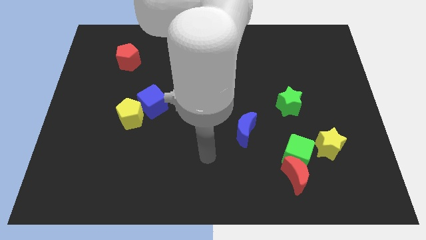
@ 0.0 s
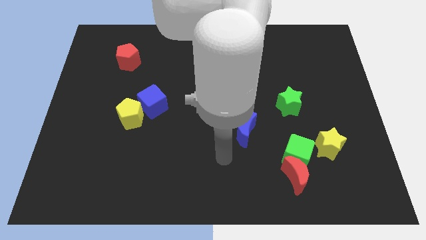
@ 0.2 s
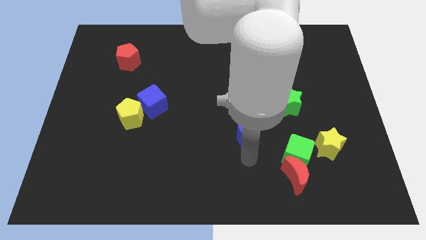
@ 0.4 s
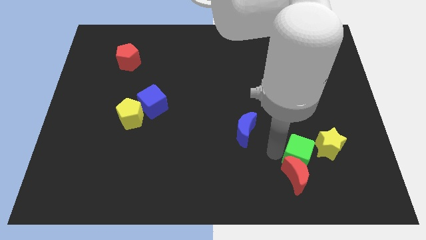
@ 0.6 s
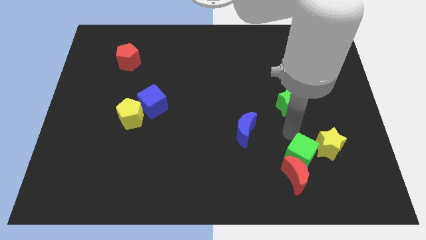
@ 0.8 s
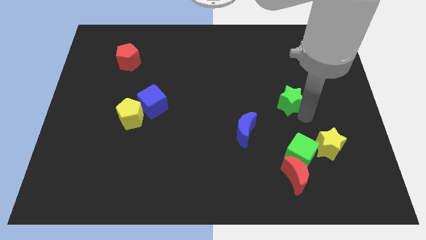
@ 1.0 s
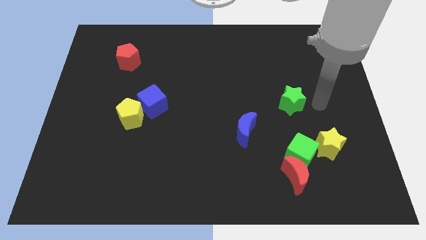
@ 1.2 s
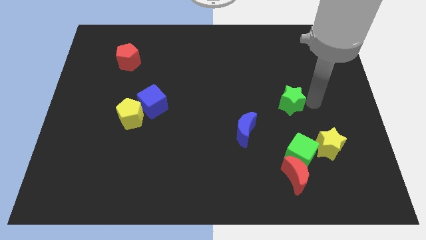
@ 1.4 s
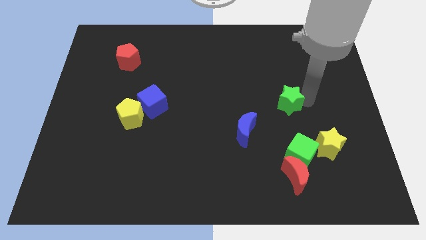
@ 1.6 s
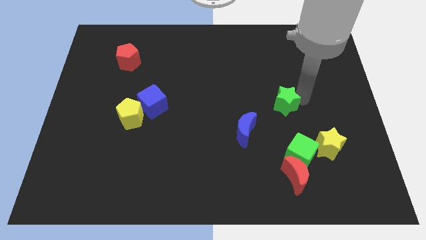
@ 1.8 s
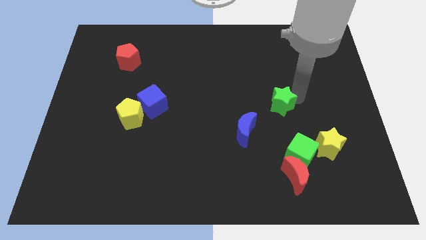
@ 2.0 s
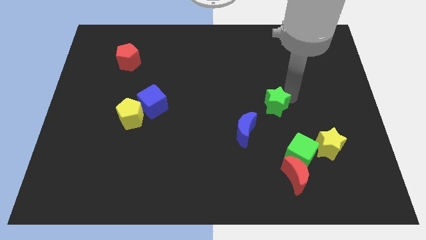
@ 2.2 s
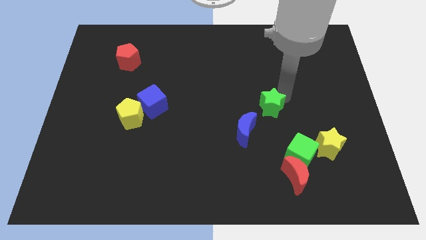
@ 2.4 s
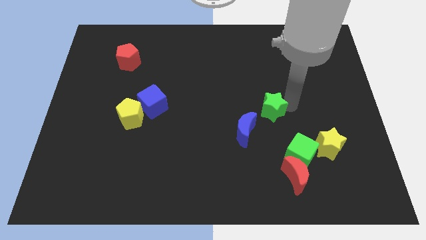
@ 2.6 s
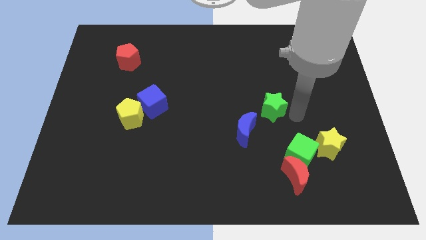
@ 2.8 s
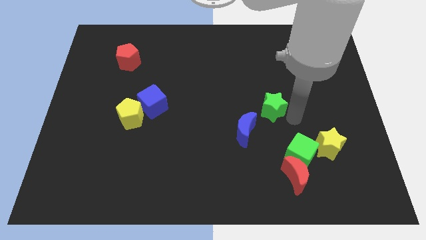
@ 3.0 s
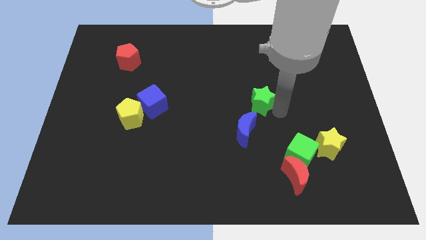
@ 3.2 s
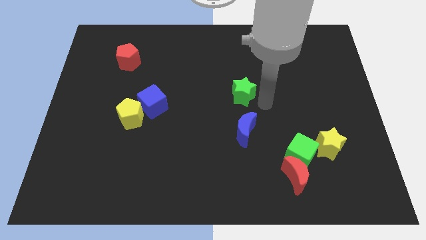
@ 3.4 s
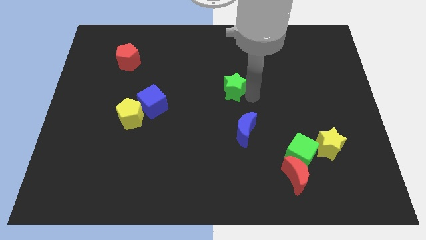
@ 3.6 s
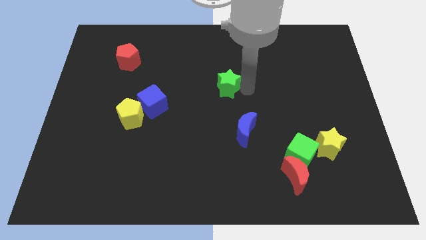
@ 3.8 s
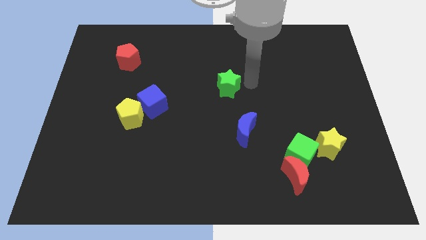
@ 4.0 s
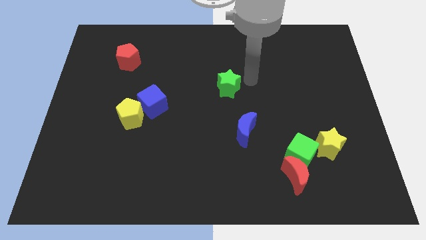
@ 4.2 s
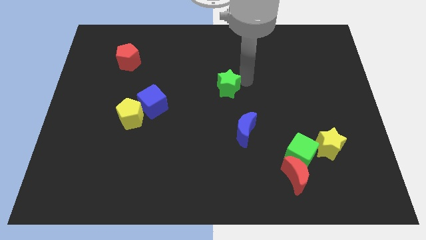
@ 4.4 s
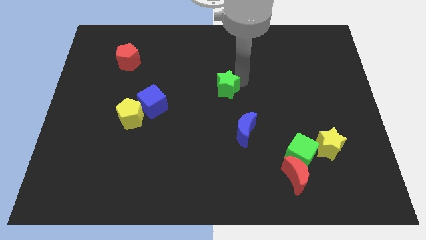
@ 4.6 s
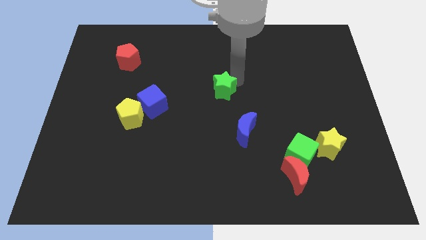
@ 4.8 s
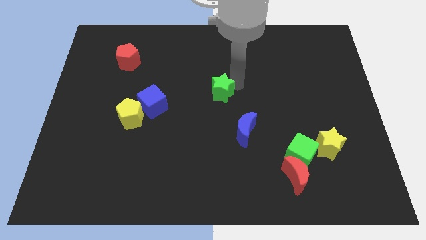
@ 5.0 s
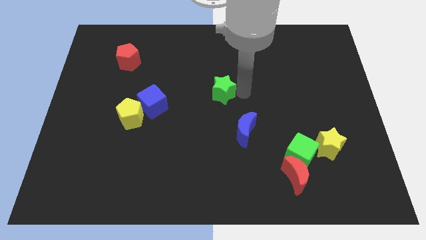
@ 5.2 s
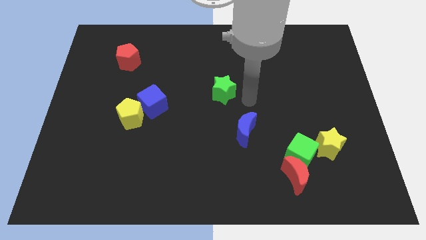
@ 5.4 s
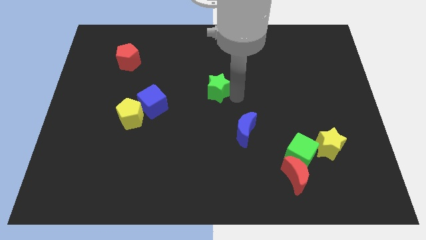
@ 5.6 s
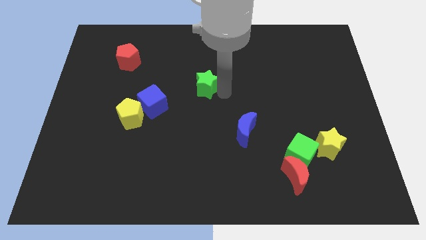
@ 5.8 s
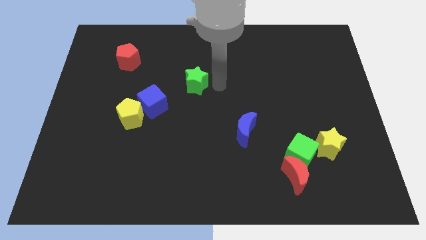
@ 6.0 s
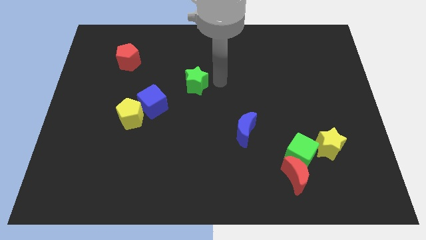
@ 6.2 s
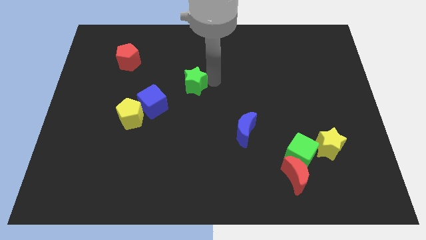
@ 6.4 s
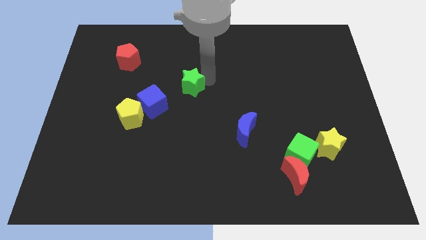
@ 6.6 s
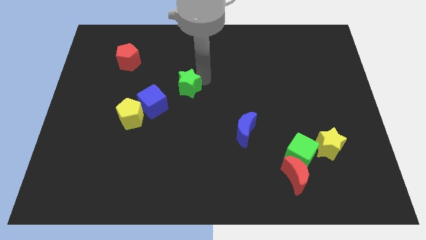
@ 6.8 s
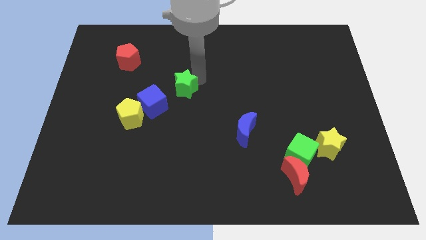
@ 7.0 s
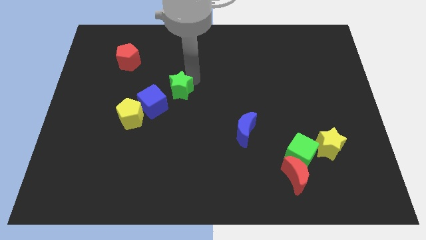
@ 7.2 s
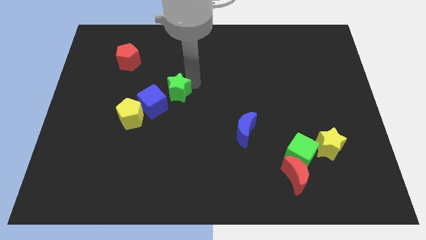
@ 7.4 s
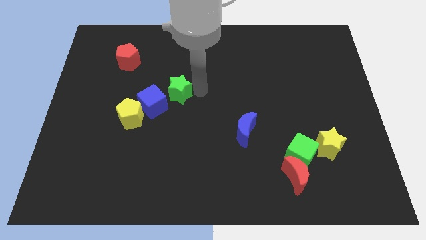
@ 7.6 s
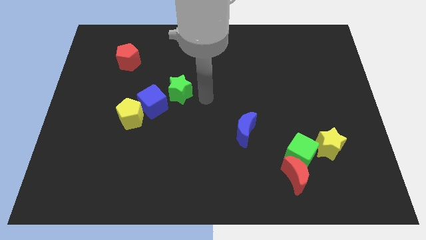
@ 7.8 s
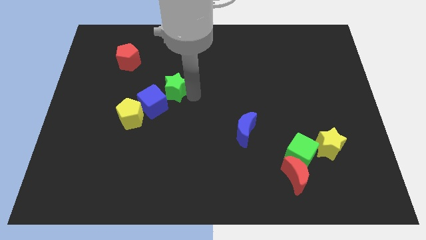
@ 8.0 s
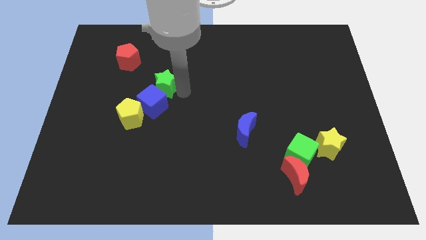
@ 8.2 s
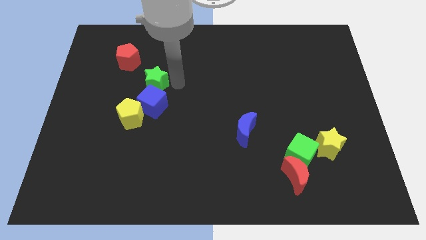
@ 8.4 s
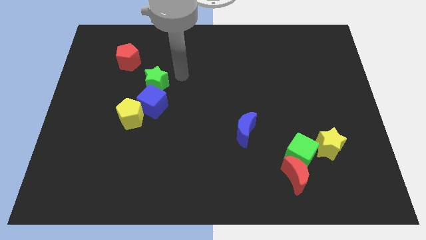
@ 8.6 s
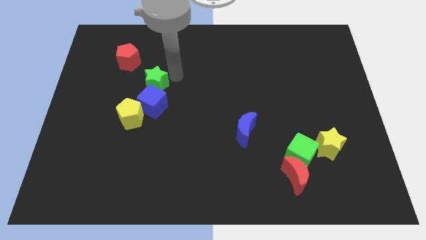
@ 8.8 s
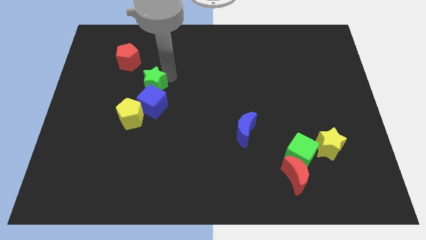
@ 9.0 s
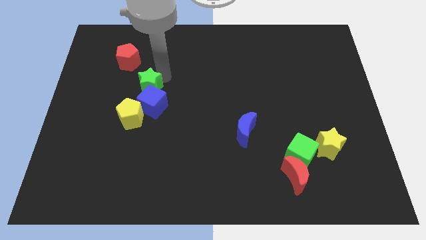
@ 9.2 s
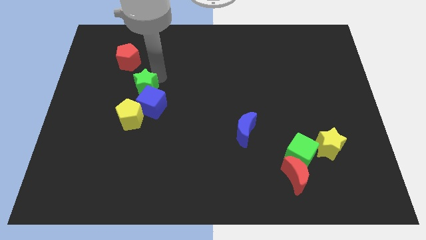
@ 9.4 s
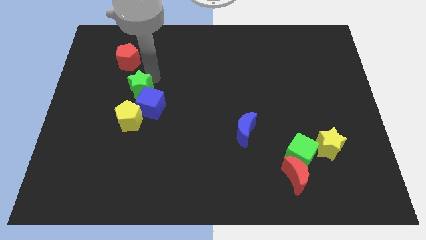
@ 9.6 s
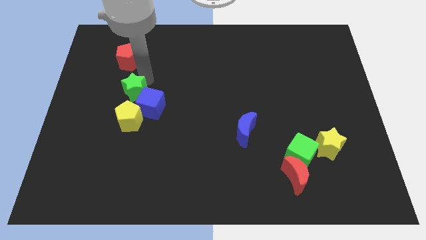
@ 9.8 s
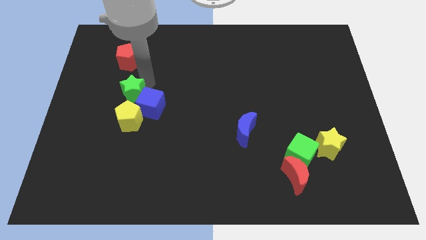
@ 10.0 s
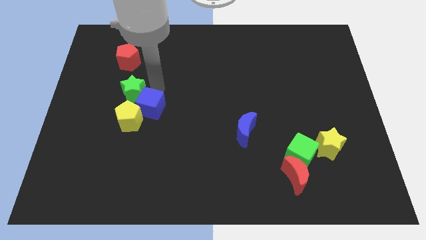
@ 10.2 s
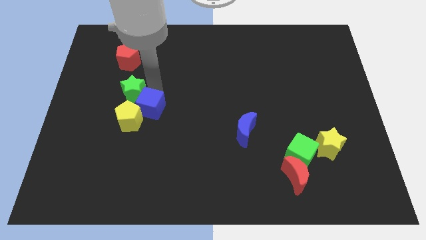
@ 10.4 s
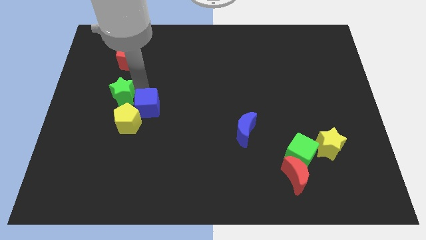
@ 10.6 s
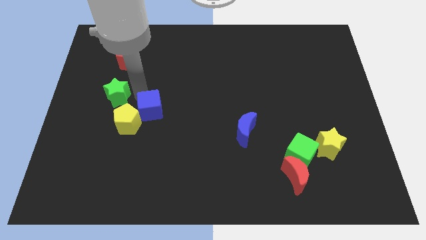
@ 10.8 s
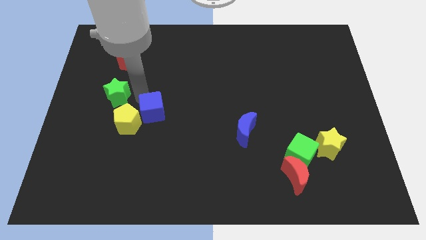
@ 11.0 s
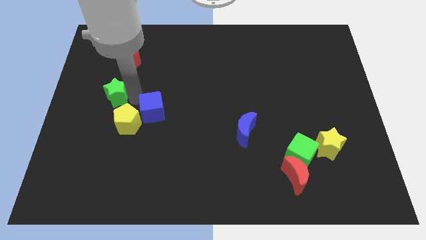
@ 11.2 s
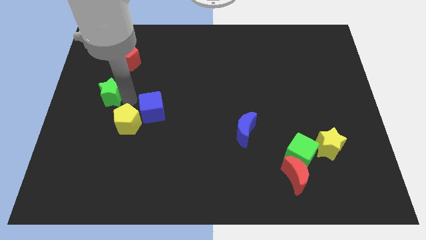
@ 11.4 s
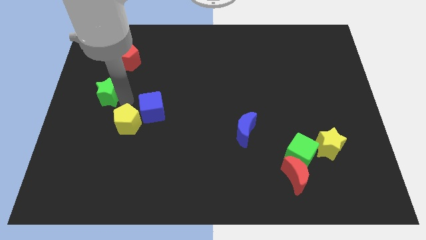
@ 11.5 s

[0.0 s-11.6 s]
push the green star to the left side of the board
